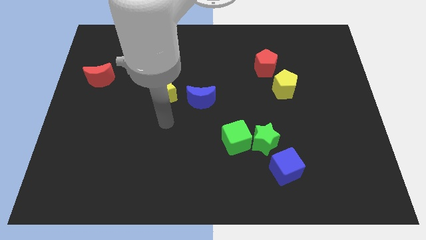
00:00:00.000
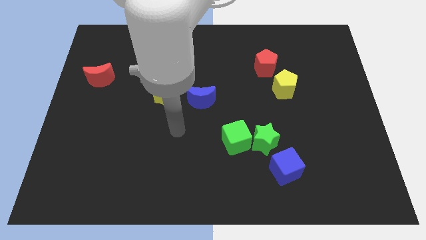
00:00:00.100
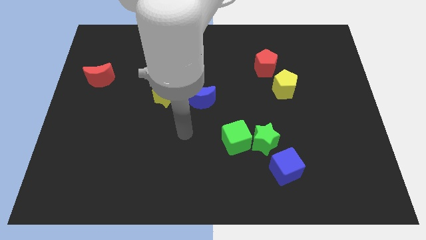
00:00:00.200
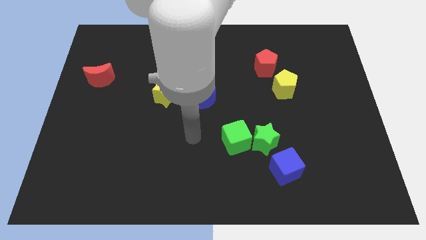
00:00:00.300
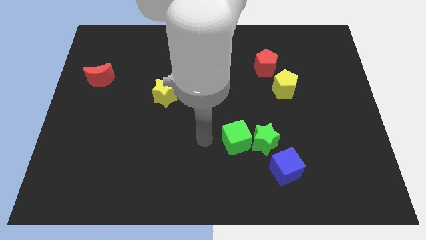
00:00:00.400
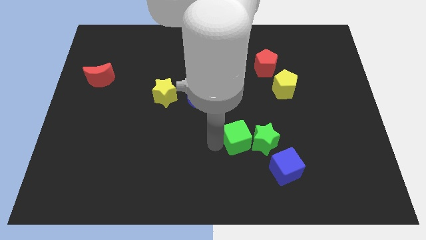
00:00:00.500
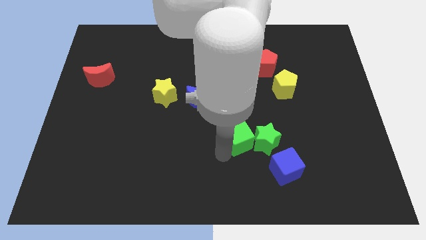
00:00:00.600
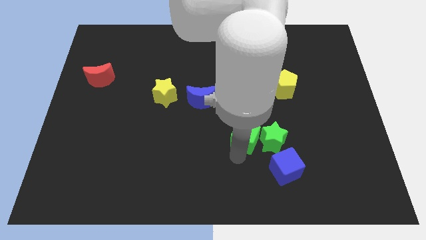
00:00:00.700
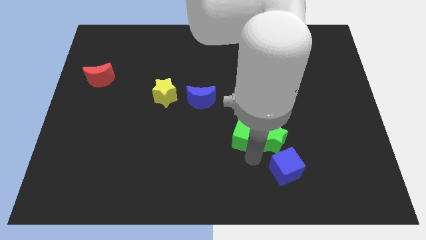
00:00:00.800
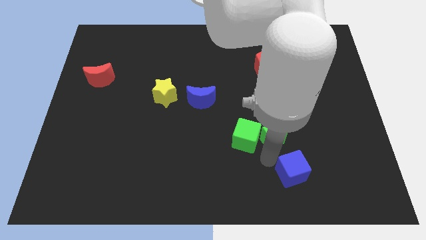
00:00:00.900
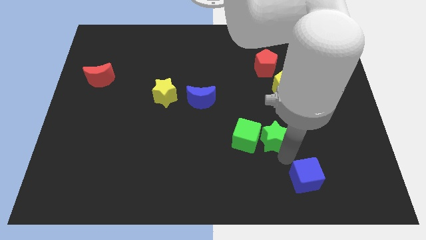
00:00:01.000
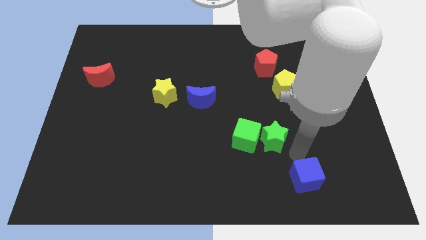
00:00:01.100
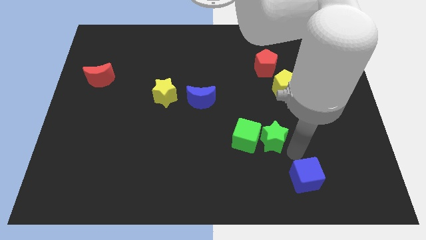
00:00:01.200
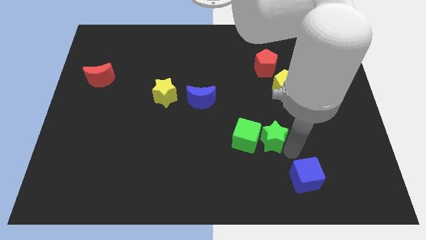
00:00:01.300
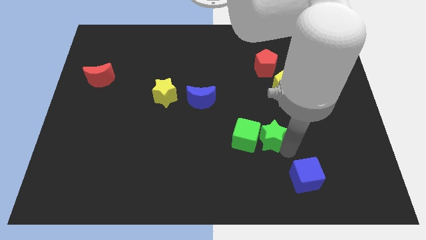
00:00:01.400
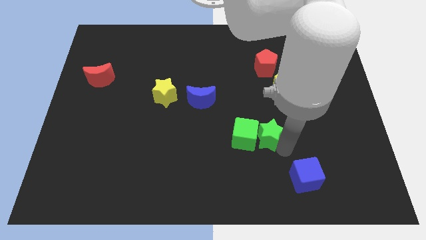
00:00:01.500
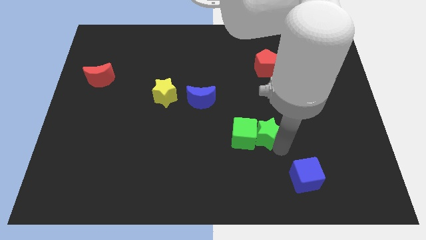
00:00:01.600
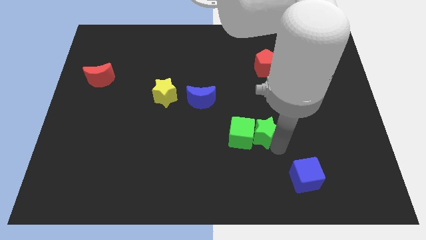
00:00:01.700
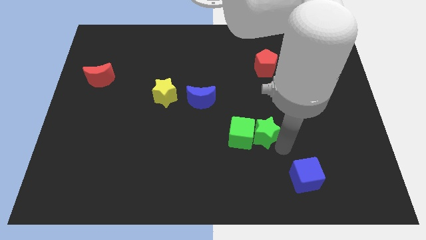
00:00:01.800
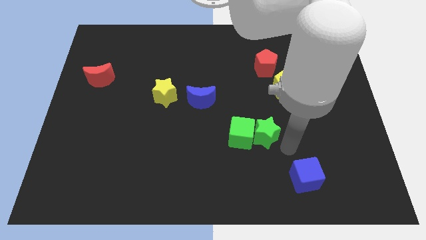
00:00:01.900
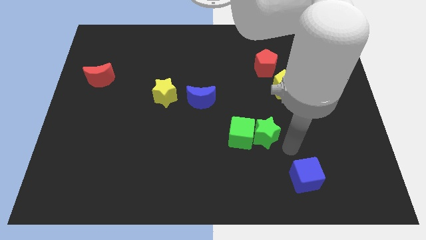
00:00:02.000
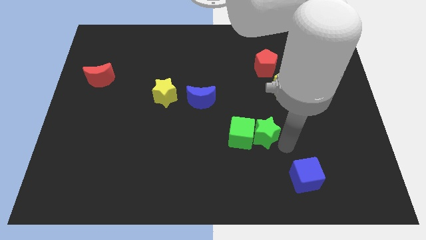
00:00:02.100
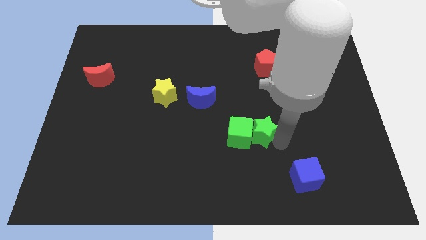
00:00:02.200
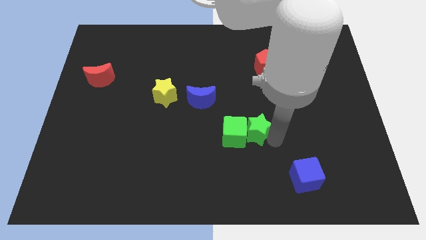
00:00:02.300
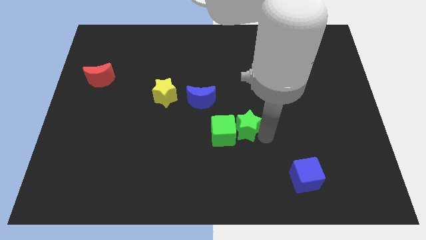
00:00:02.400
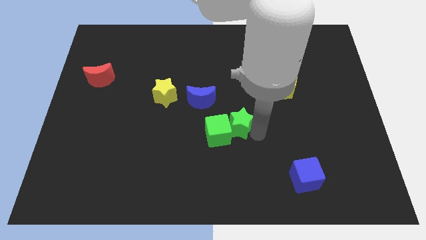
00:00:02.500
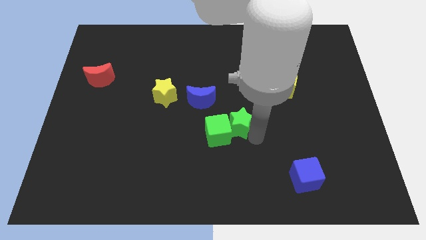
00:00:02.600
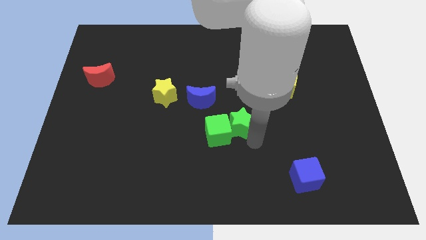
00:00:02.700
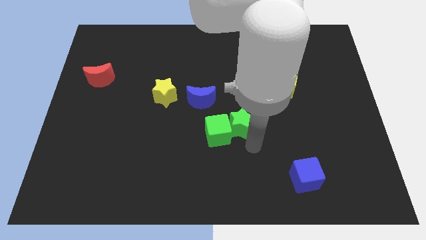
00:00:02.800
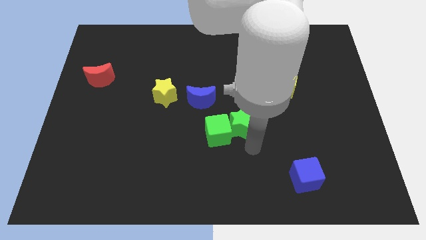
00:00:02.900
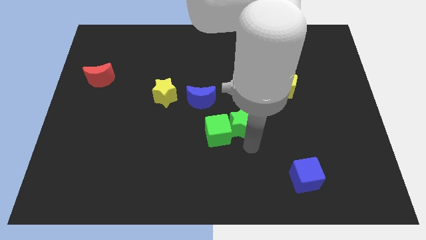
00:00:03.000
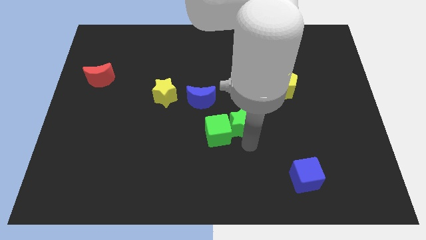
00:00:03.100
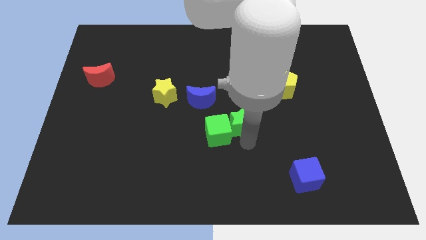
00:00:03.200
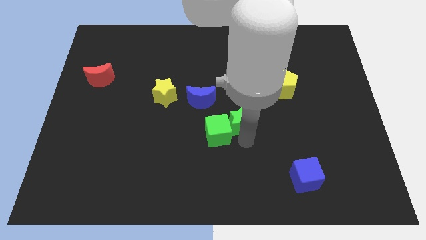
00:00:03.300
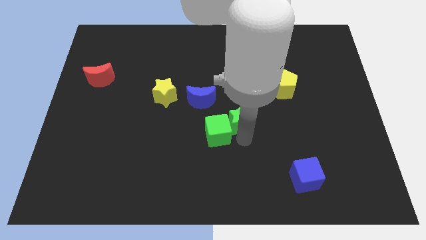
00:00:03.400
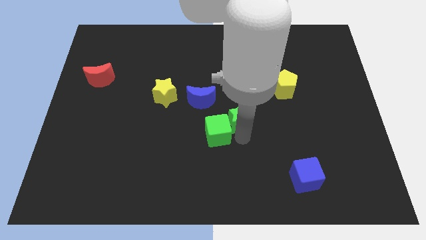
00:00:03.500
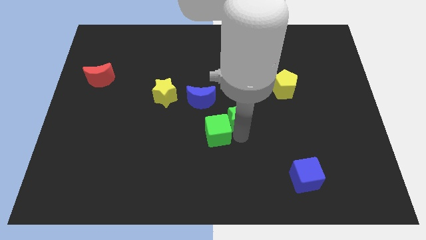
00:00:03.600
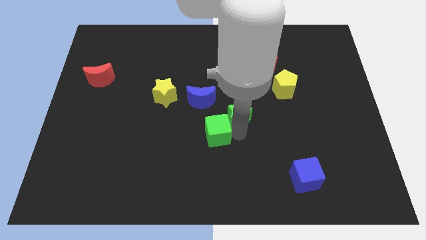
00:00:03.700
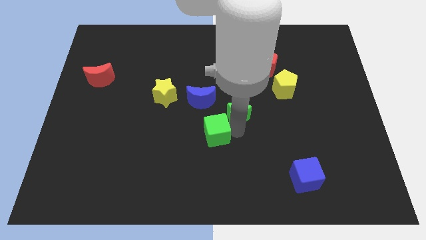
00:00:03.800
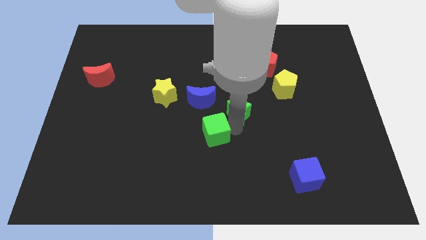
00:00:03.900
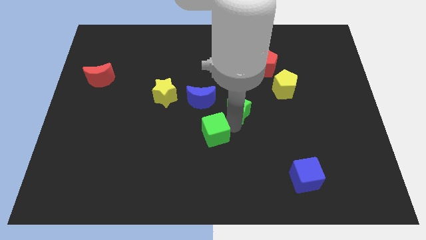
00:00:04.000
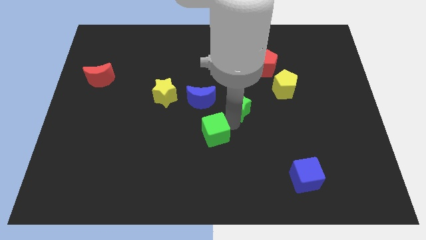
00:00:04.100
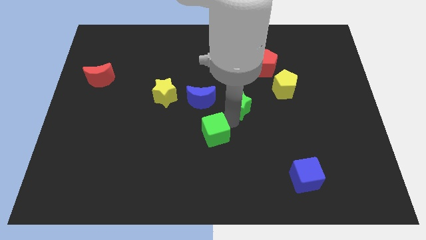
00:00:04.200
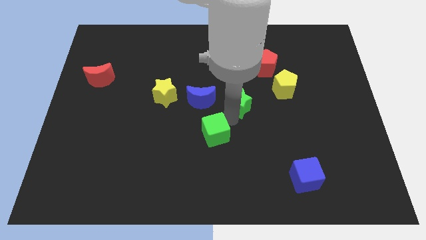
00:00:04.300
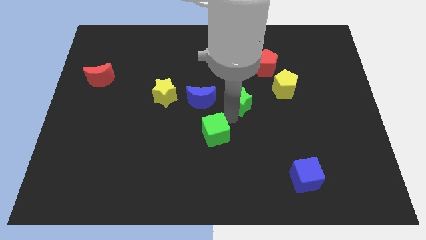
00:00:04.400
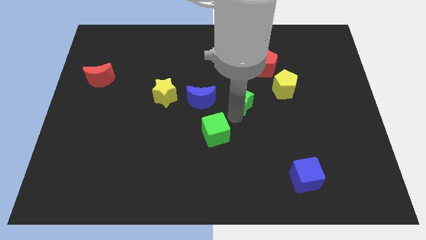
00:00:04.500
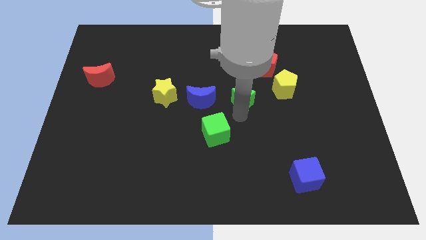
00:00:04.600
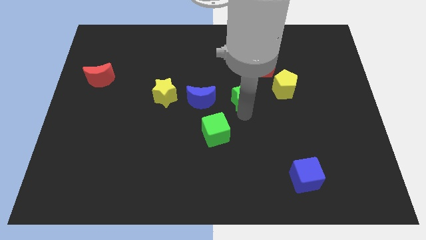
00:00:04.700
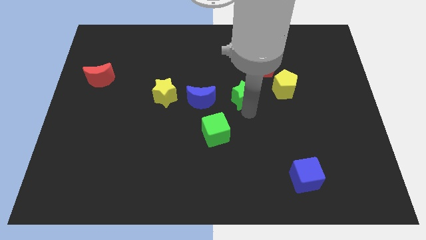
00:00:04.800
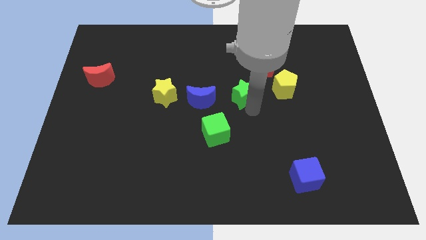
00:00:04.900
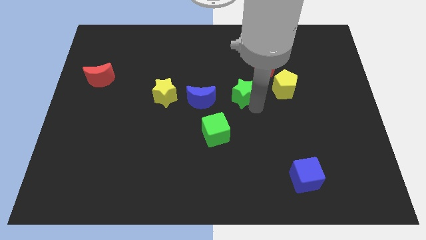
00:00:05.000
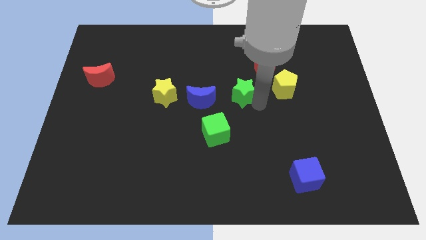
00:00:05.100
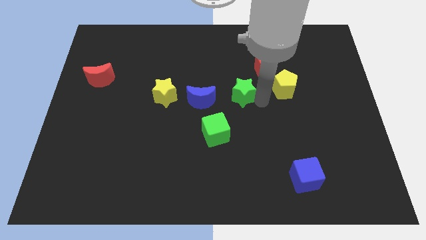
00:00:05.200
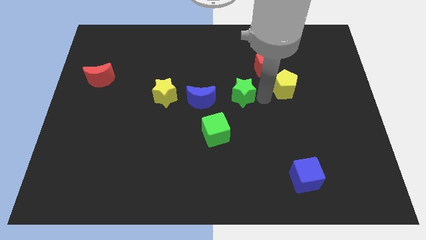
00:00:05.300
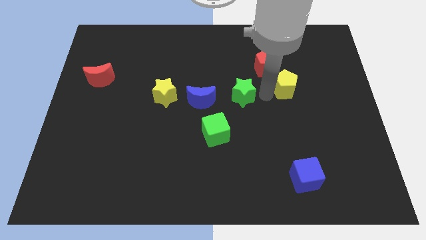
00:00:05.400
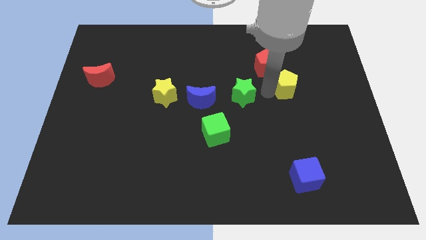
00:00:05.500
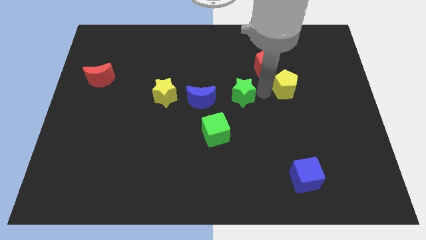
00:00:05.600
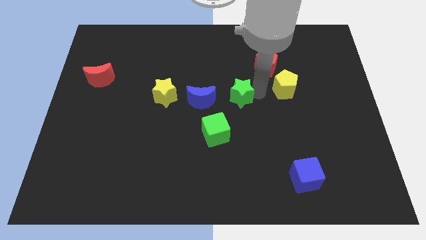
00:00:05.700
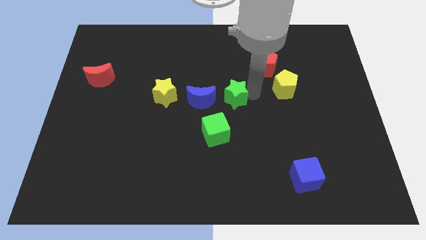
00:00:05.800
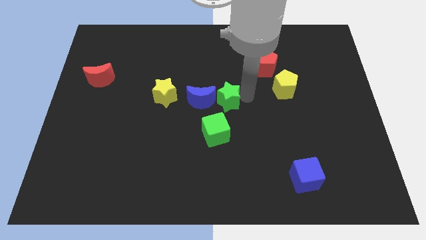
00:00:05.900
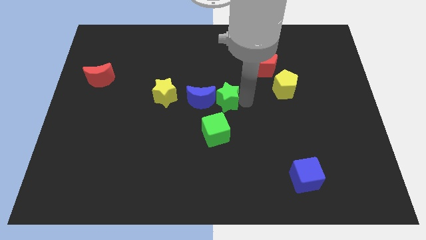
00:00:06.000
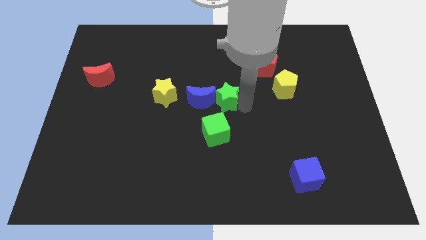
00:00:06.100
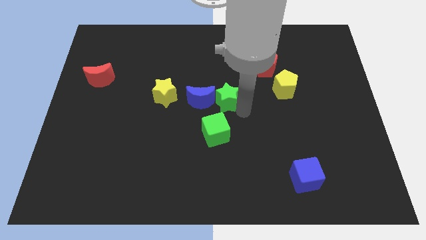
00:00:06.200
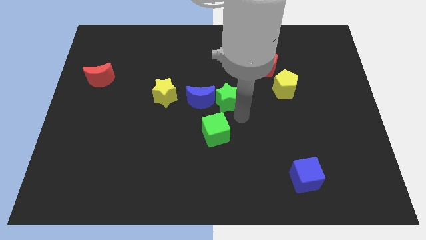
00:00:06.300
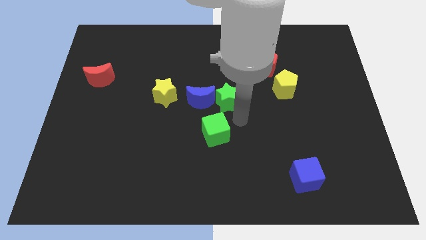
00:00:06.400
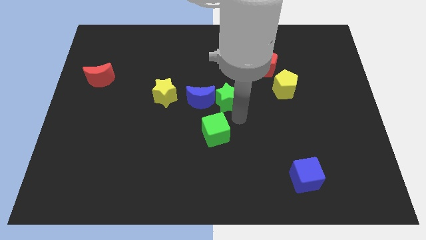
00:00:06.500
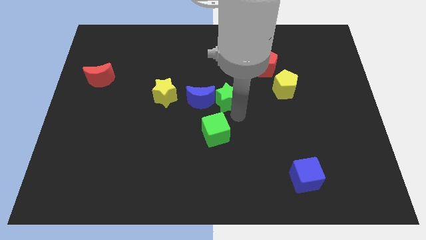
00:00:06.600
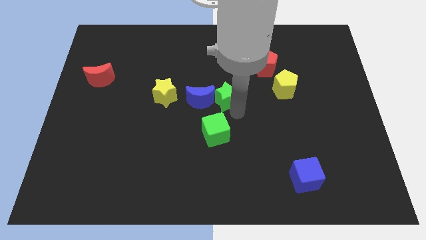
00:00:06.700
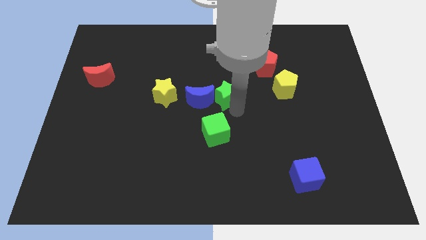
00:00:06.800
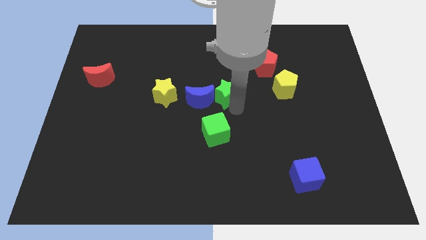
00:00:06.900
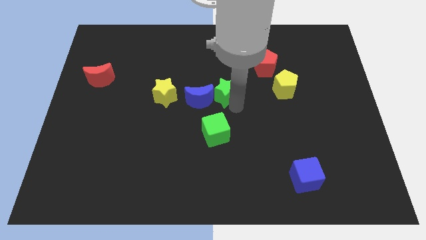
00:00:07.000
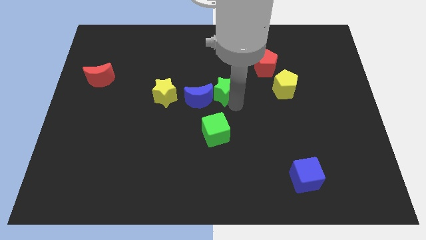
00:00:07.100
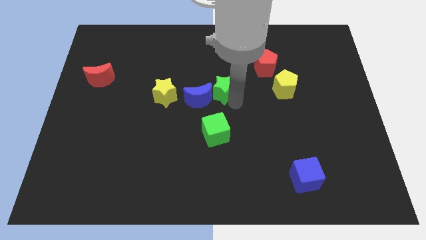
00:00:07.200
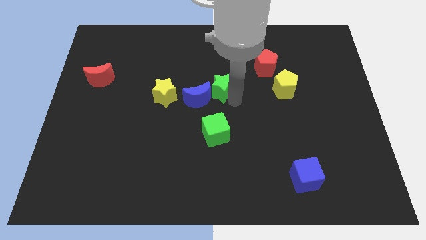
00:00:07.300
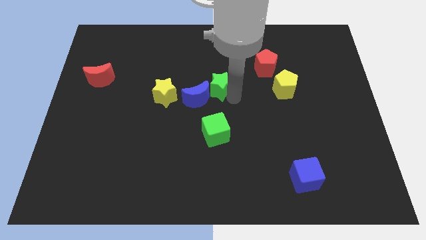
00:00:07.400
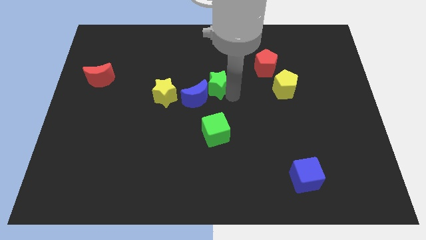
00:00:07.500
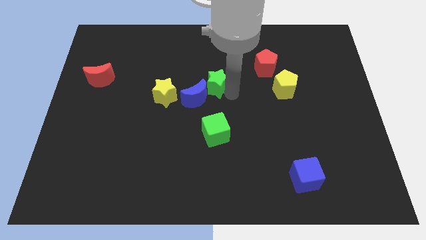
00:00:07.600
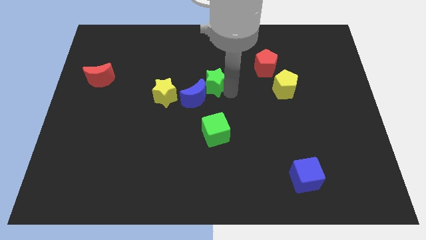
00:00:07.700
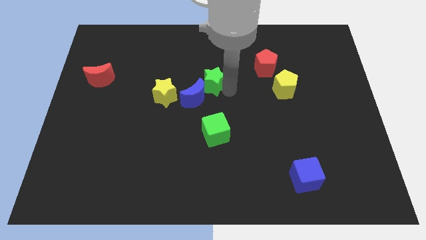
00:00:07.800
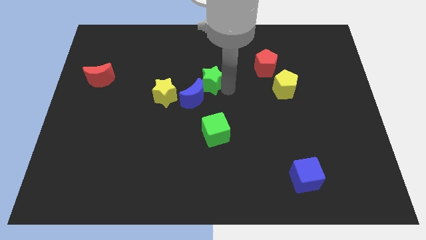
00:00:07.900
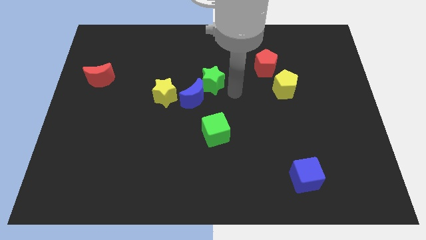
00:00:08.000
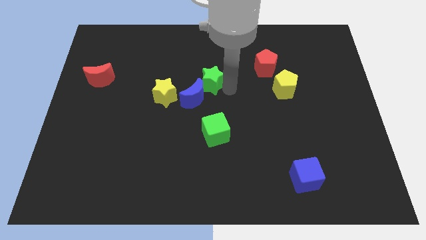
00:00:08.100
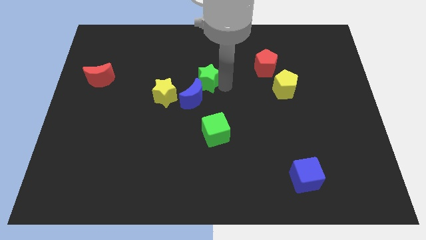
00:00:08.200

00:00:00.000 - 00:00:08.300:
push the green star diagonally upwards and left
